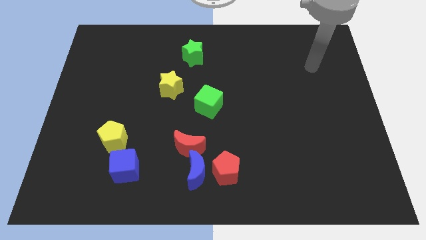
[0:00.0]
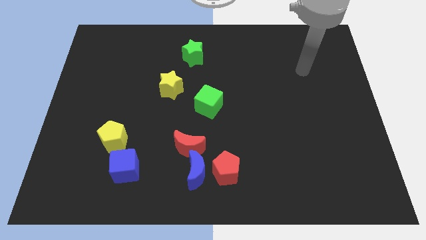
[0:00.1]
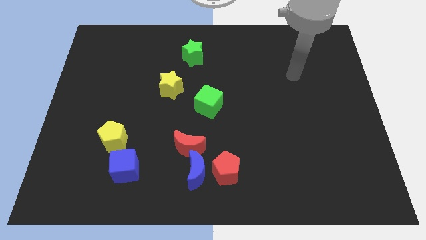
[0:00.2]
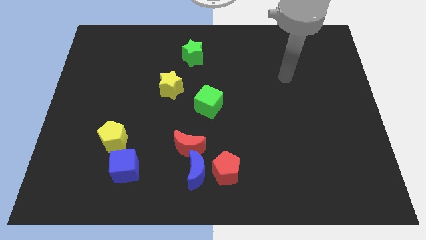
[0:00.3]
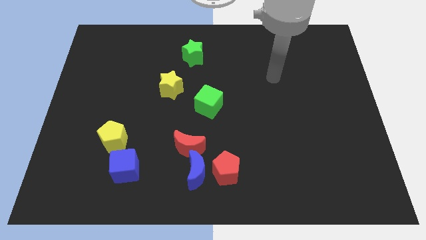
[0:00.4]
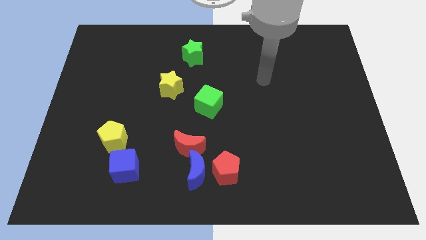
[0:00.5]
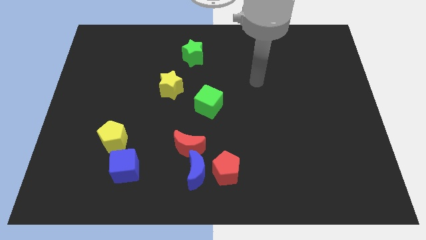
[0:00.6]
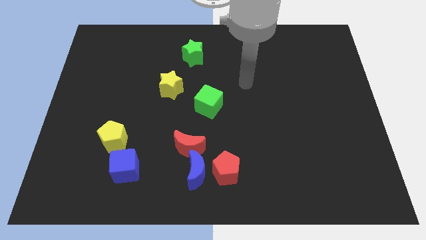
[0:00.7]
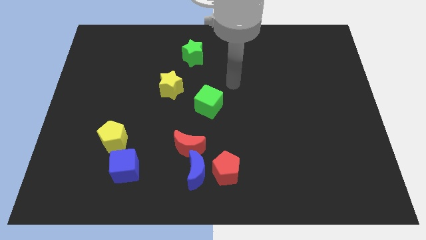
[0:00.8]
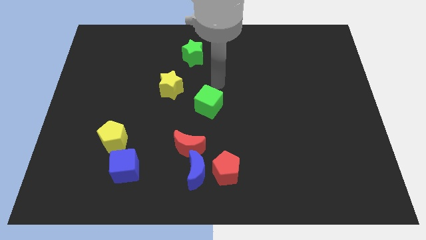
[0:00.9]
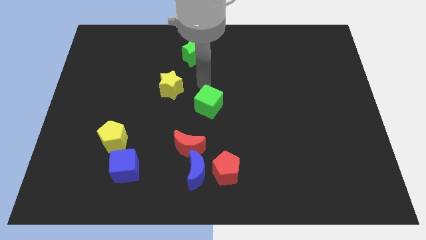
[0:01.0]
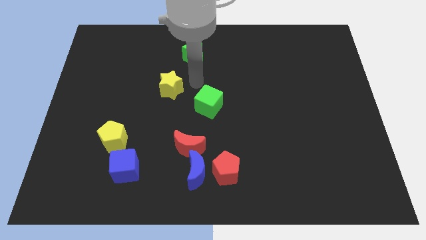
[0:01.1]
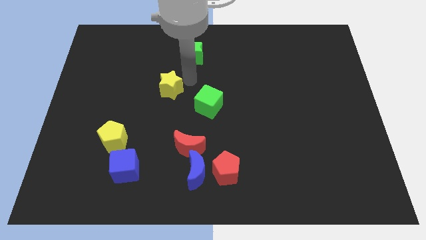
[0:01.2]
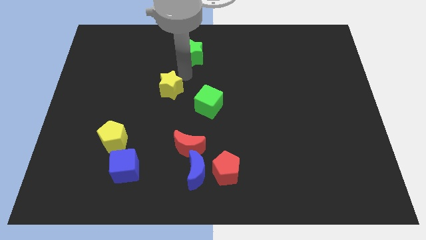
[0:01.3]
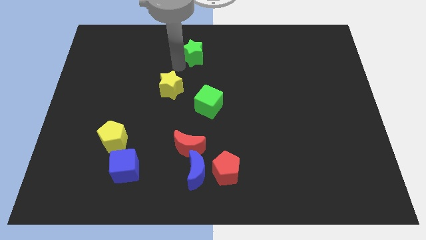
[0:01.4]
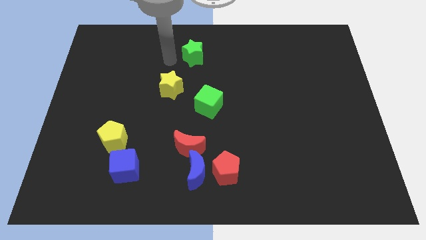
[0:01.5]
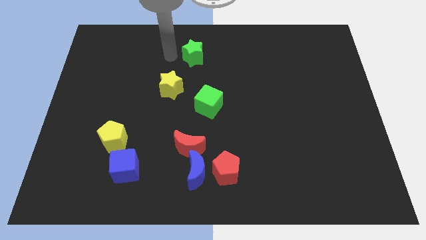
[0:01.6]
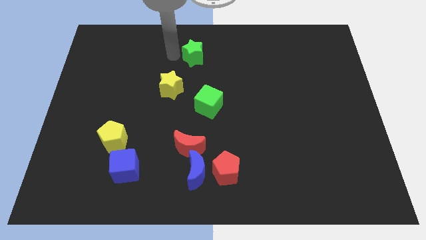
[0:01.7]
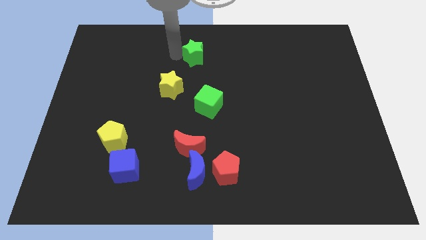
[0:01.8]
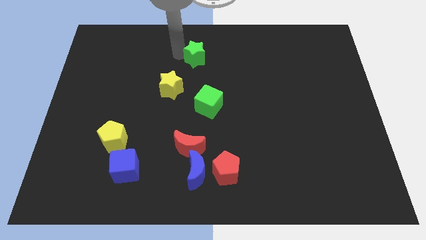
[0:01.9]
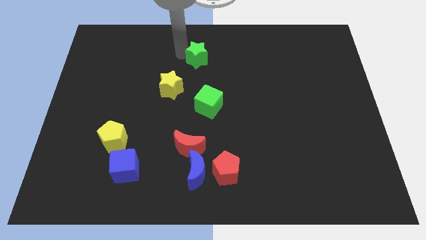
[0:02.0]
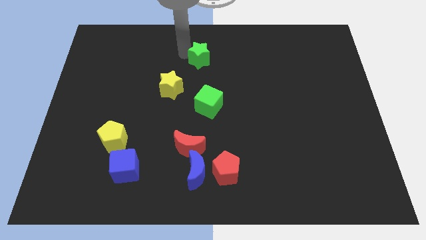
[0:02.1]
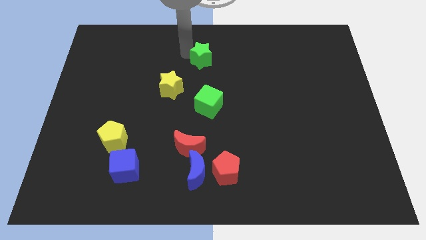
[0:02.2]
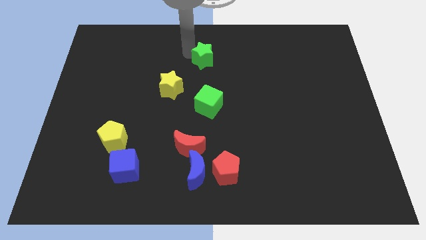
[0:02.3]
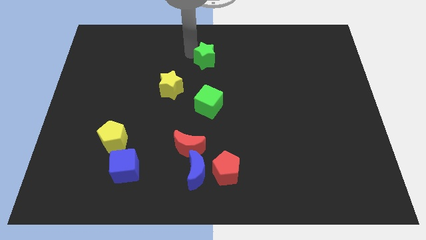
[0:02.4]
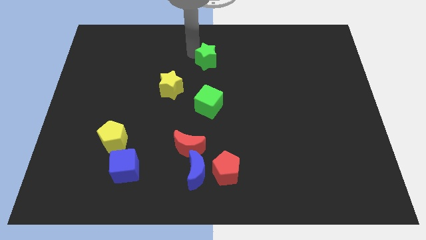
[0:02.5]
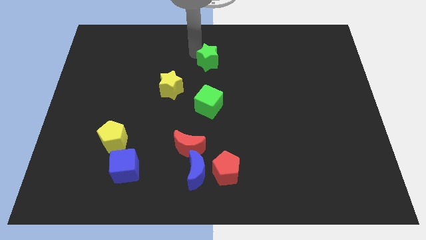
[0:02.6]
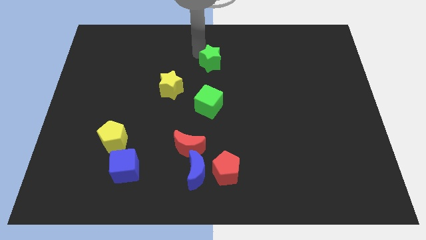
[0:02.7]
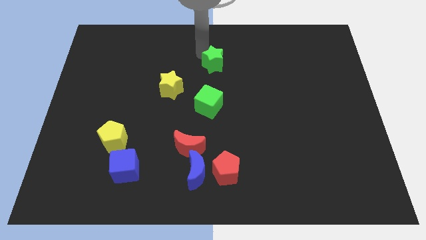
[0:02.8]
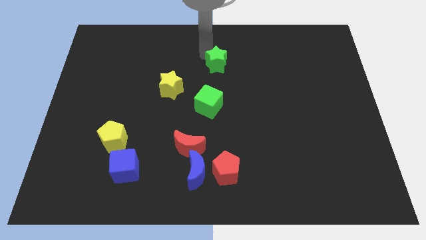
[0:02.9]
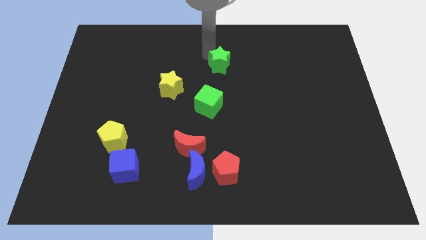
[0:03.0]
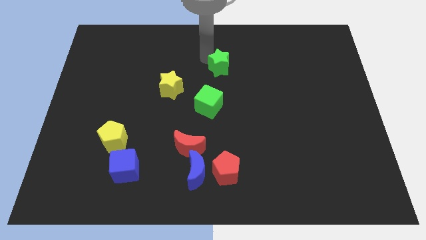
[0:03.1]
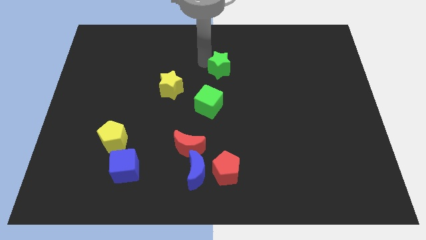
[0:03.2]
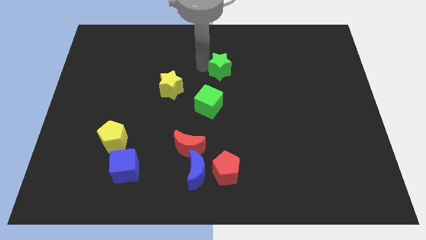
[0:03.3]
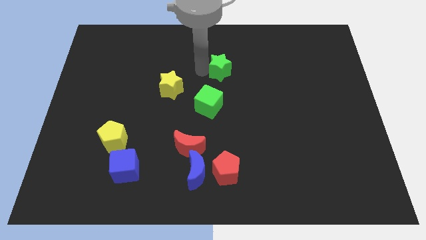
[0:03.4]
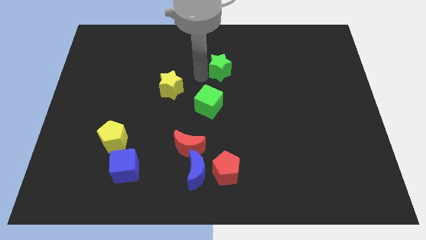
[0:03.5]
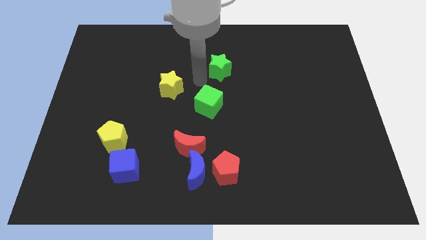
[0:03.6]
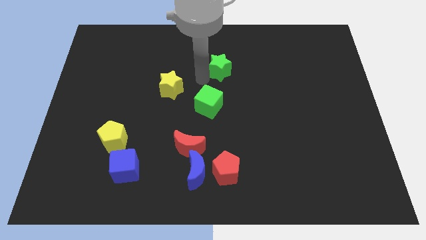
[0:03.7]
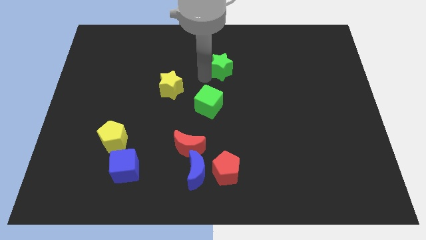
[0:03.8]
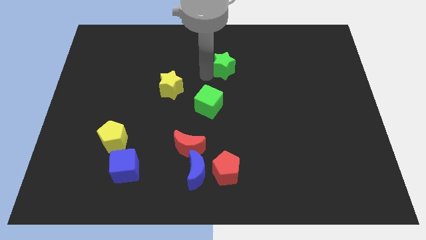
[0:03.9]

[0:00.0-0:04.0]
slide the green star a little bit to the right

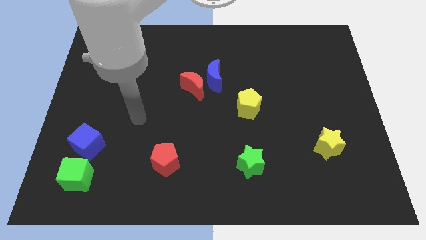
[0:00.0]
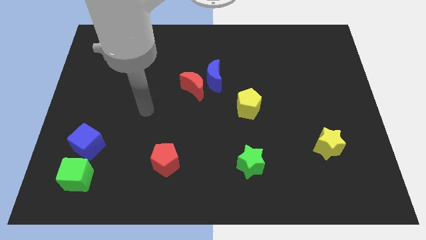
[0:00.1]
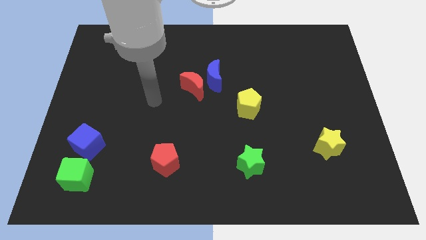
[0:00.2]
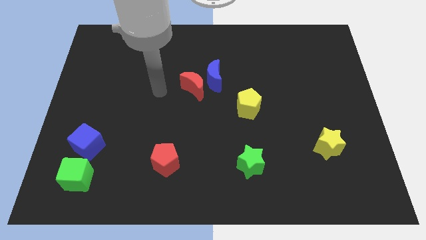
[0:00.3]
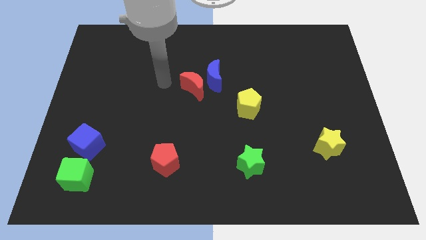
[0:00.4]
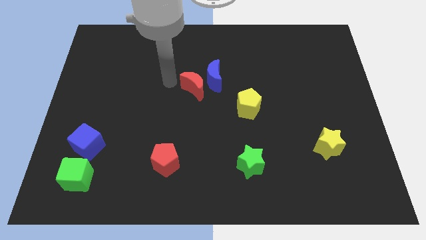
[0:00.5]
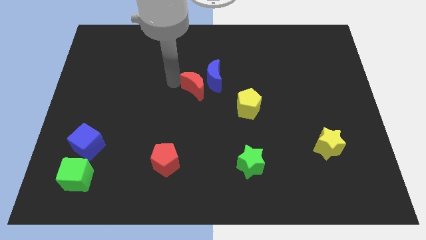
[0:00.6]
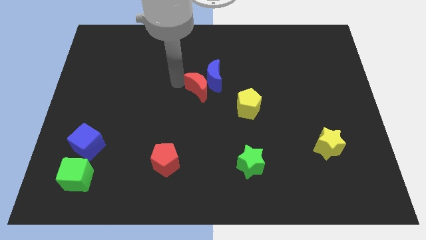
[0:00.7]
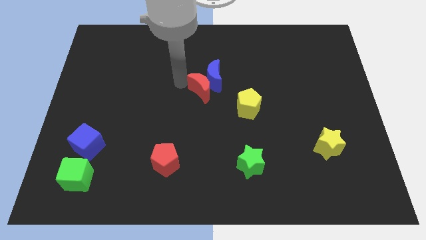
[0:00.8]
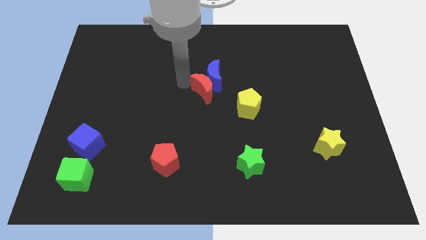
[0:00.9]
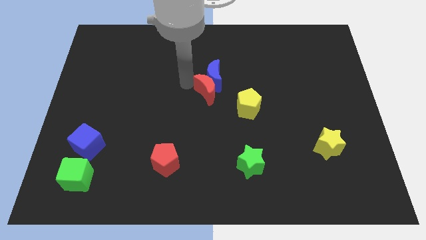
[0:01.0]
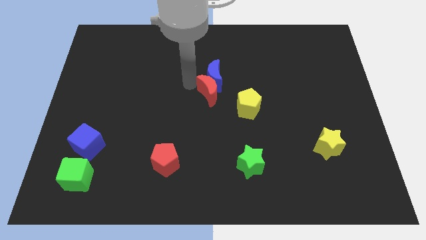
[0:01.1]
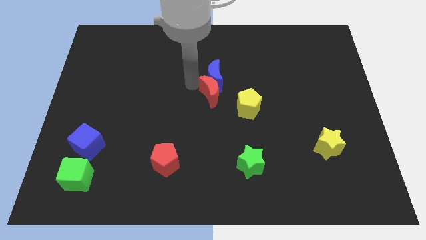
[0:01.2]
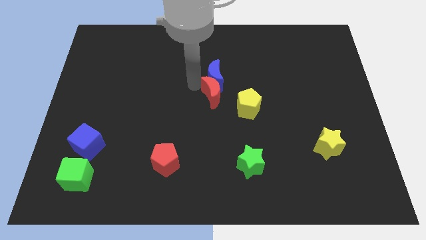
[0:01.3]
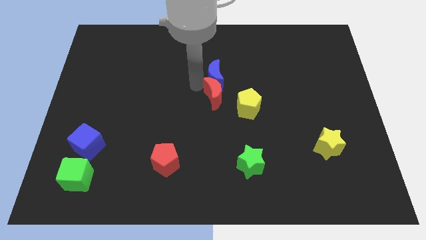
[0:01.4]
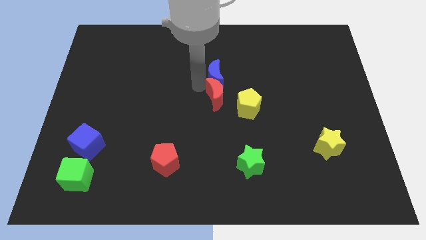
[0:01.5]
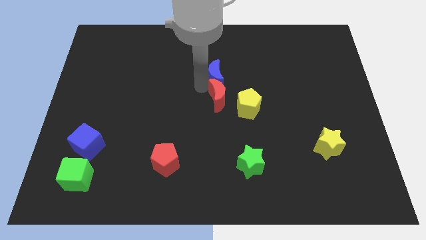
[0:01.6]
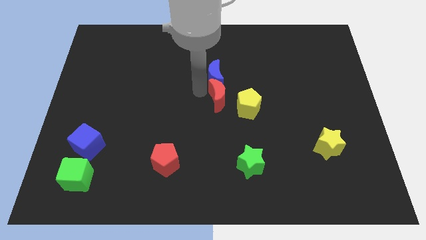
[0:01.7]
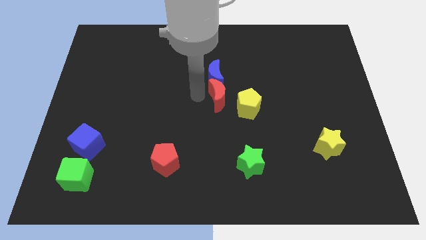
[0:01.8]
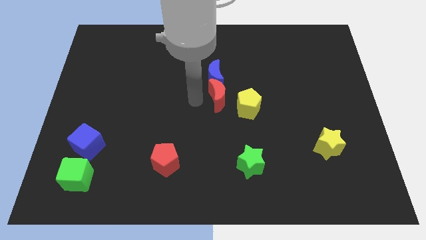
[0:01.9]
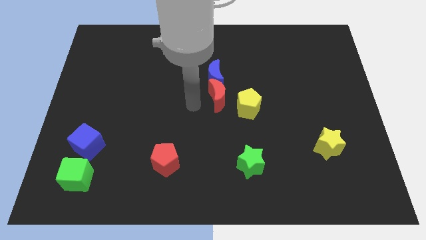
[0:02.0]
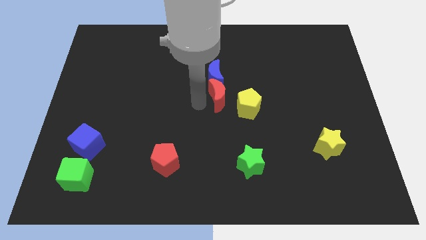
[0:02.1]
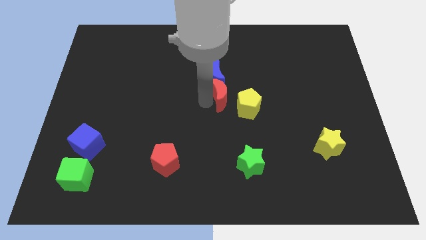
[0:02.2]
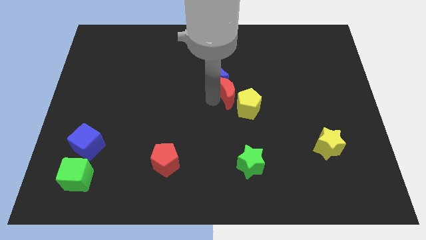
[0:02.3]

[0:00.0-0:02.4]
slightly slide the red moon to the right

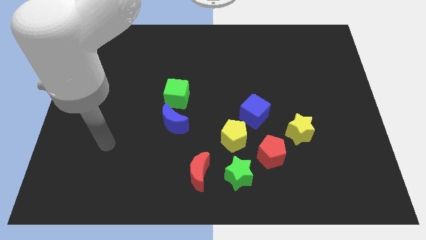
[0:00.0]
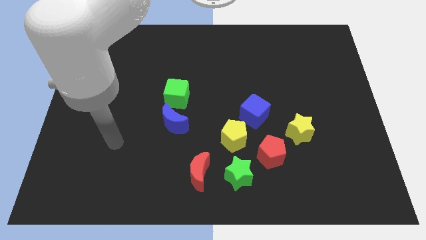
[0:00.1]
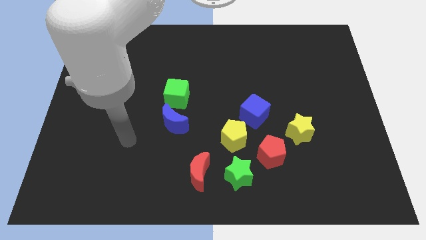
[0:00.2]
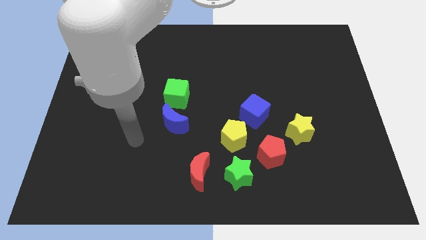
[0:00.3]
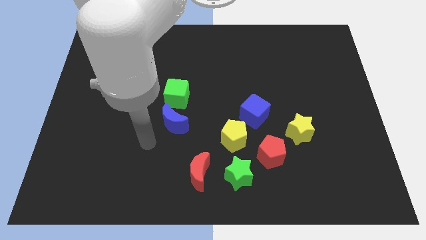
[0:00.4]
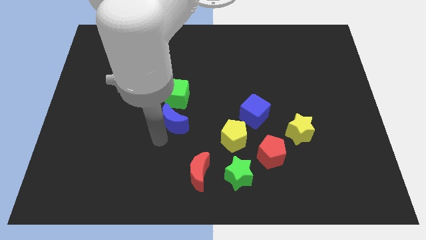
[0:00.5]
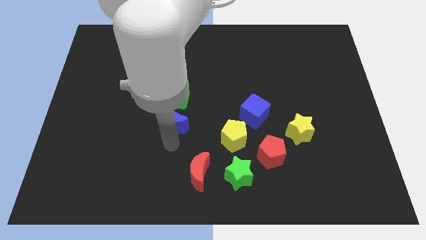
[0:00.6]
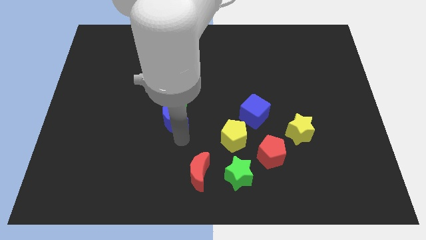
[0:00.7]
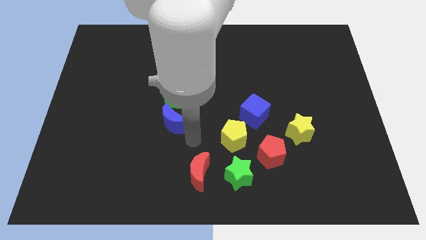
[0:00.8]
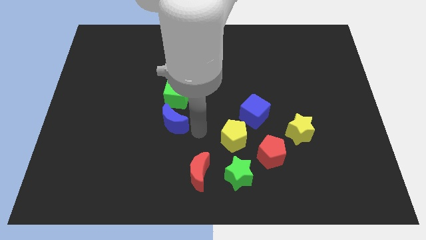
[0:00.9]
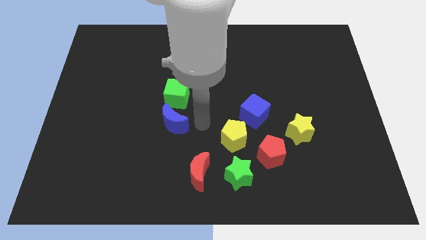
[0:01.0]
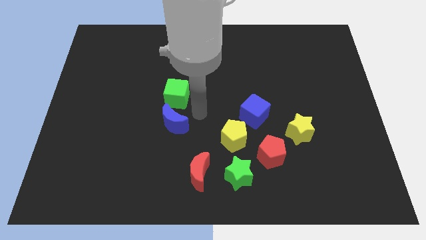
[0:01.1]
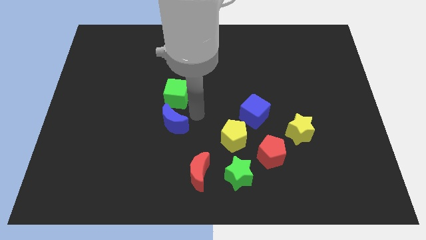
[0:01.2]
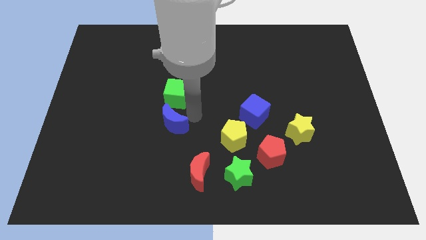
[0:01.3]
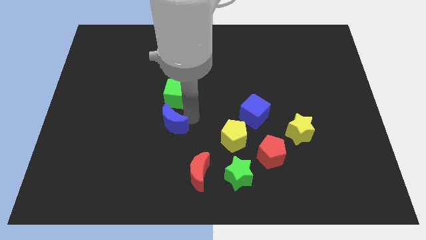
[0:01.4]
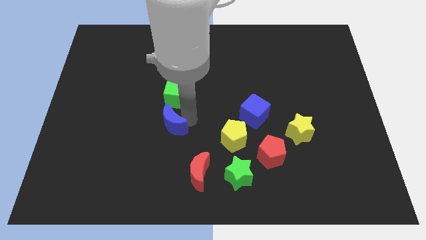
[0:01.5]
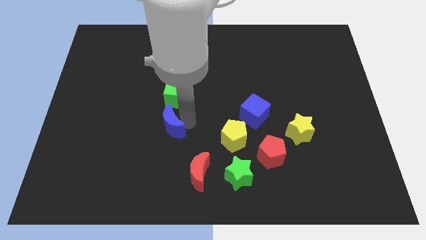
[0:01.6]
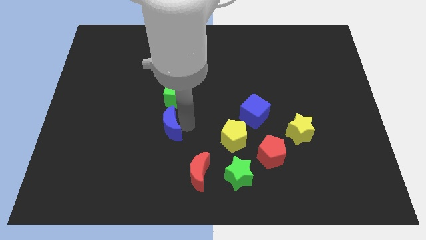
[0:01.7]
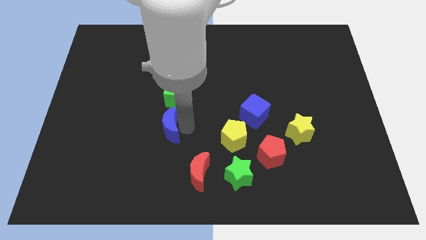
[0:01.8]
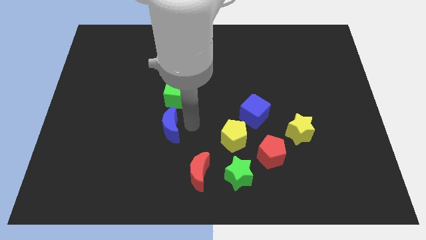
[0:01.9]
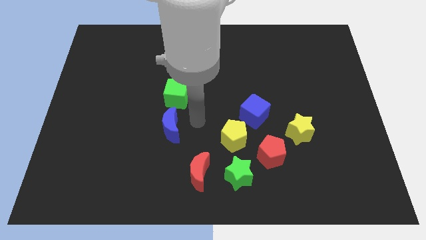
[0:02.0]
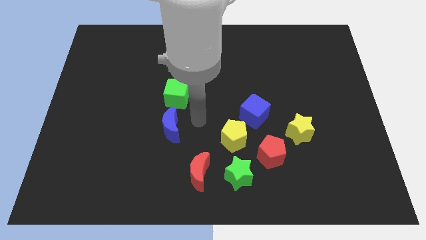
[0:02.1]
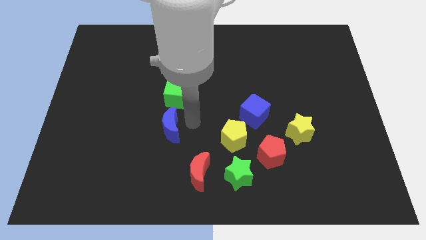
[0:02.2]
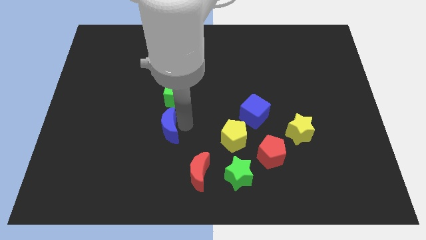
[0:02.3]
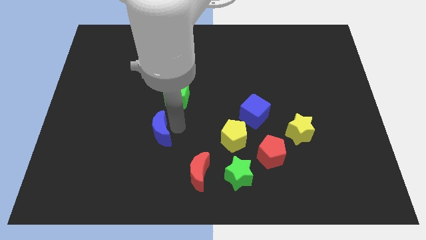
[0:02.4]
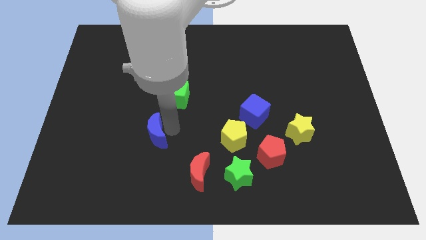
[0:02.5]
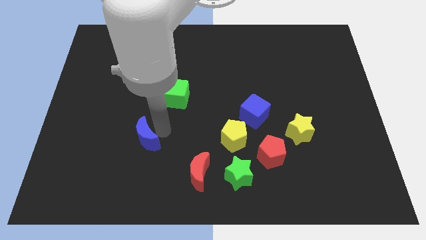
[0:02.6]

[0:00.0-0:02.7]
push the blue moon down and left slightly
